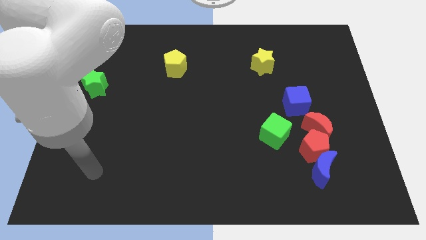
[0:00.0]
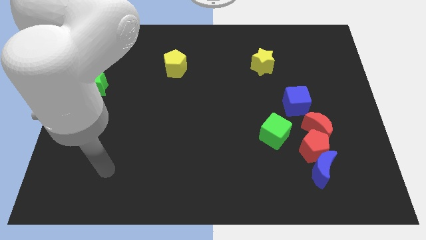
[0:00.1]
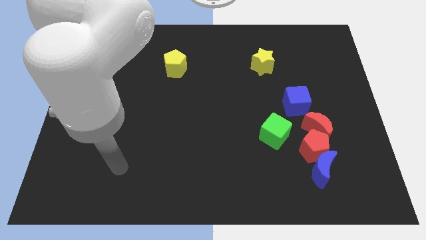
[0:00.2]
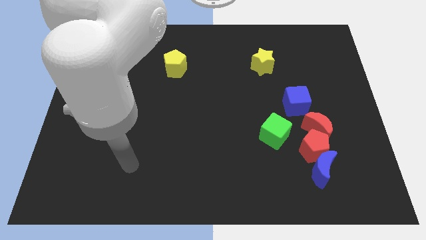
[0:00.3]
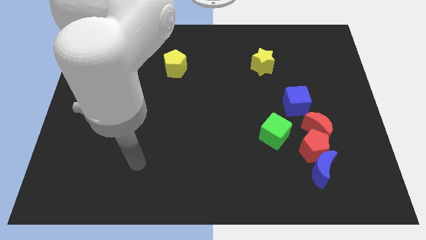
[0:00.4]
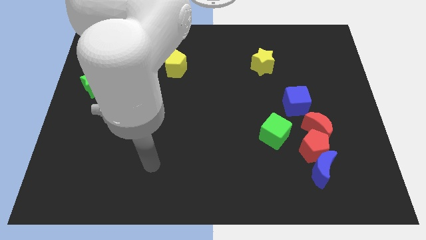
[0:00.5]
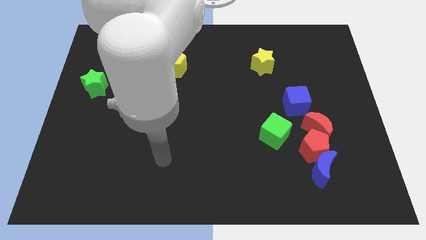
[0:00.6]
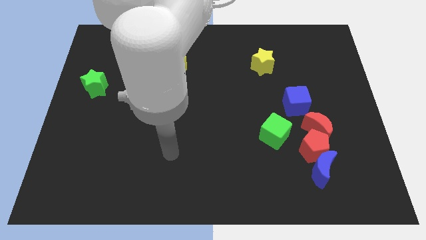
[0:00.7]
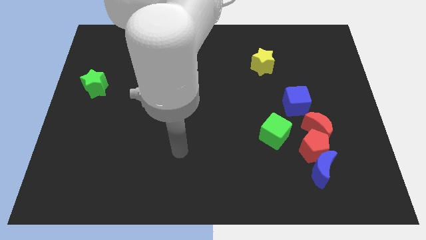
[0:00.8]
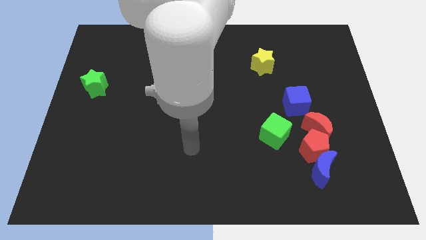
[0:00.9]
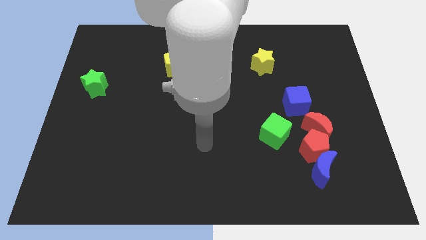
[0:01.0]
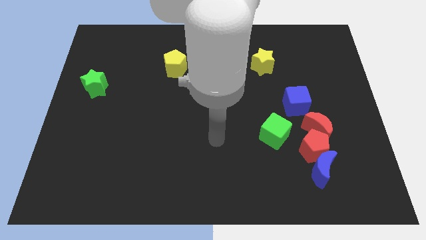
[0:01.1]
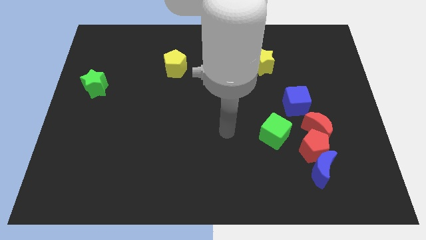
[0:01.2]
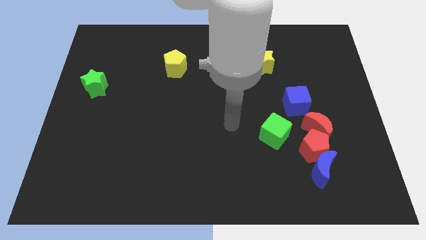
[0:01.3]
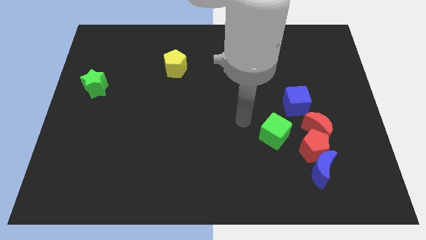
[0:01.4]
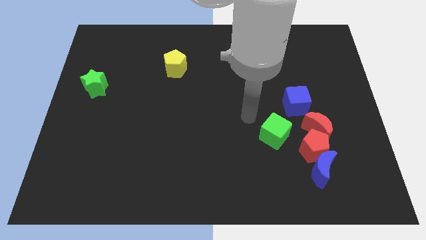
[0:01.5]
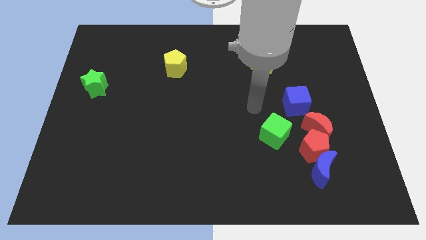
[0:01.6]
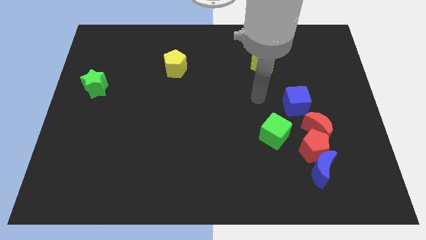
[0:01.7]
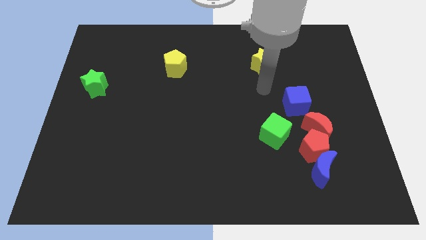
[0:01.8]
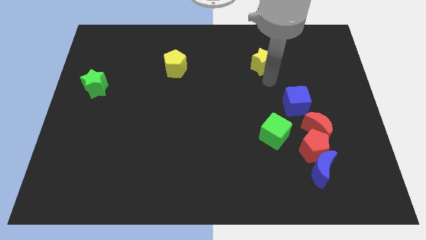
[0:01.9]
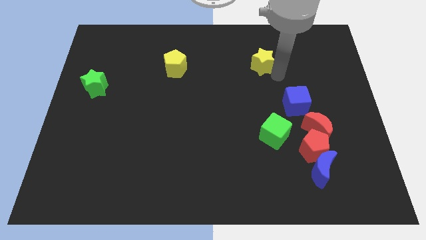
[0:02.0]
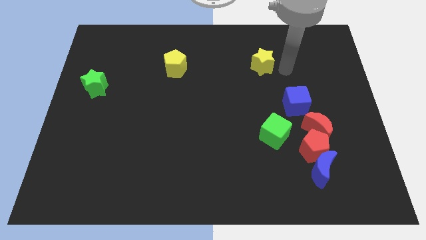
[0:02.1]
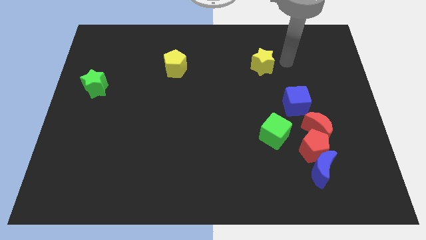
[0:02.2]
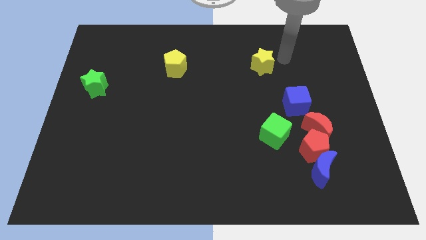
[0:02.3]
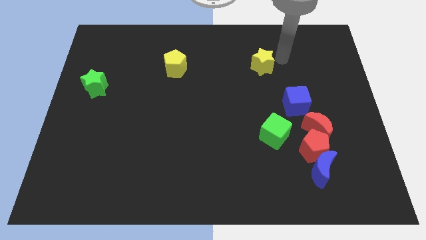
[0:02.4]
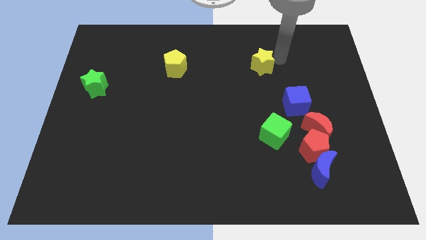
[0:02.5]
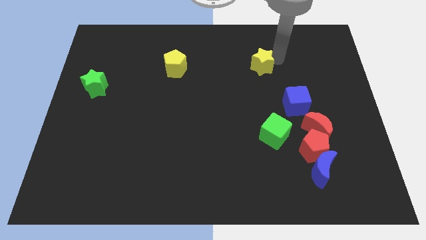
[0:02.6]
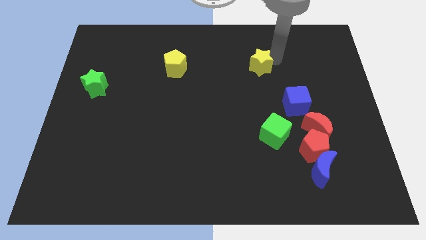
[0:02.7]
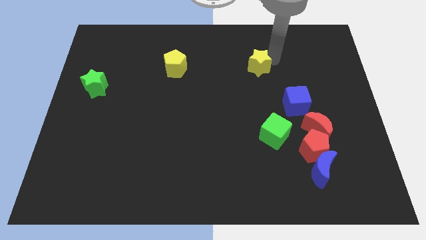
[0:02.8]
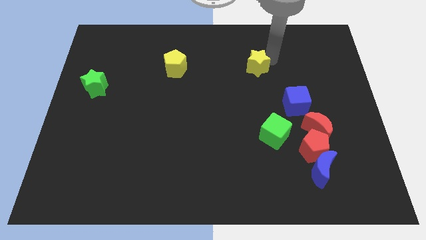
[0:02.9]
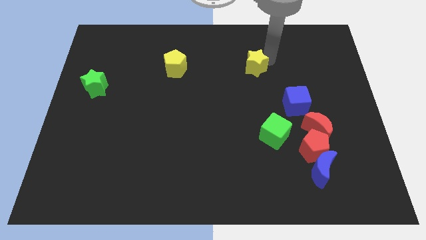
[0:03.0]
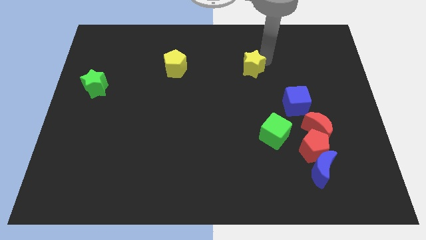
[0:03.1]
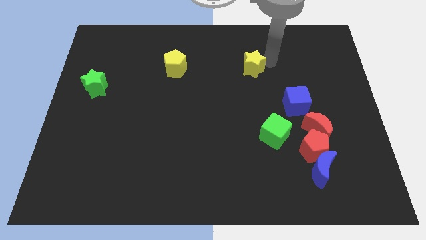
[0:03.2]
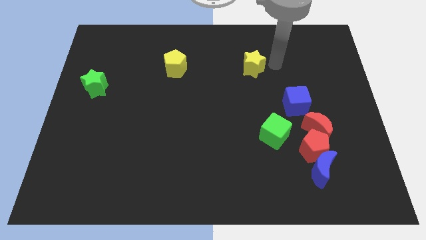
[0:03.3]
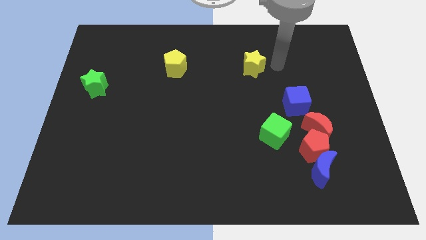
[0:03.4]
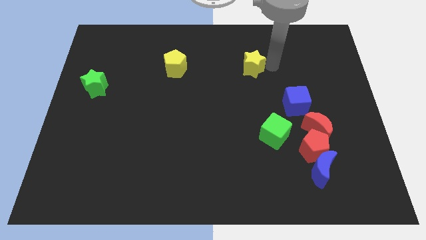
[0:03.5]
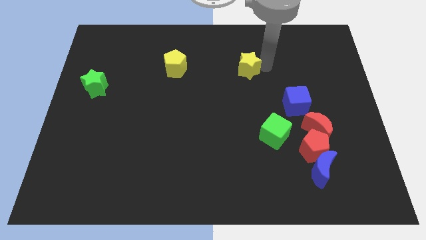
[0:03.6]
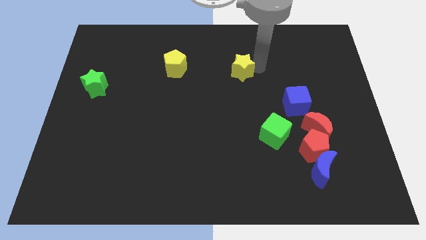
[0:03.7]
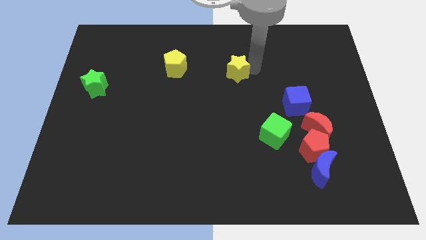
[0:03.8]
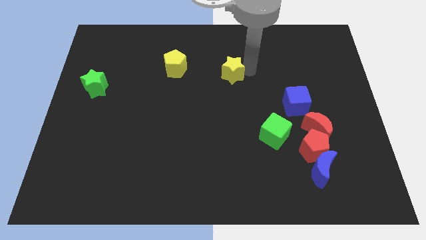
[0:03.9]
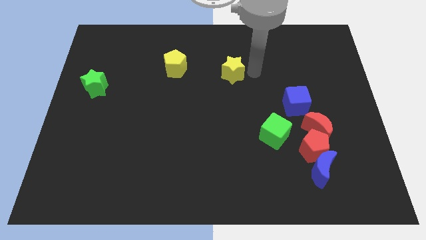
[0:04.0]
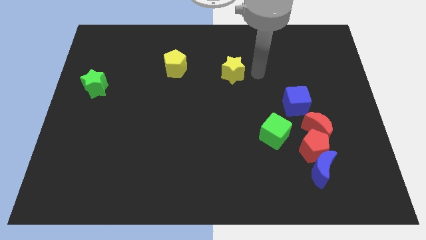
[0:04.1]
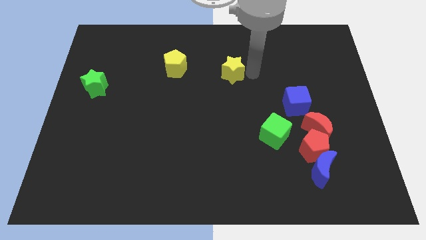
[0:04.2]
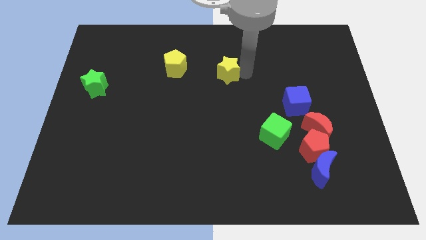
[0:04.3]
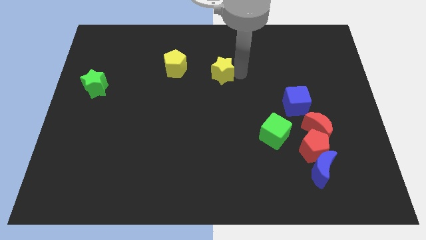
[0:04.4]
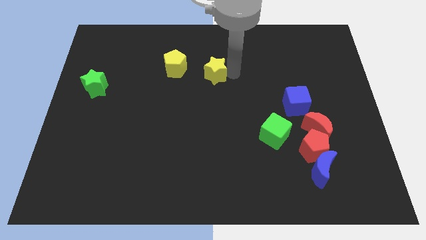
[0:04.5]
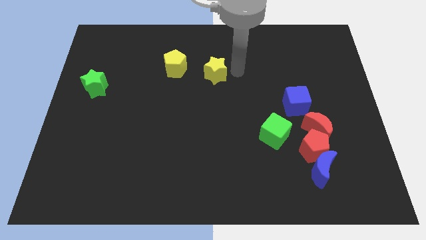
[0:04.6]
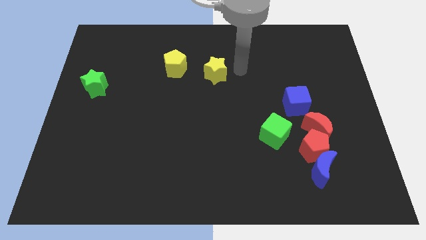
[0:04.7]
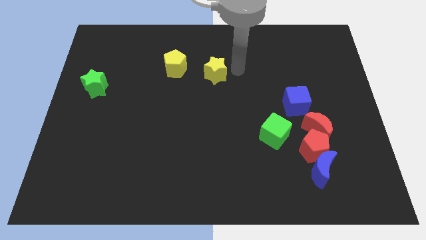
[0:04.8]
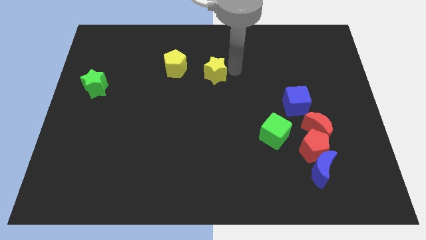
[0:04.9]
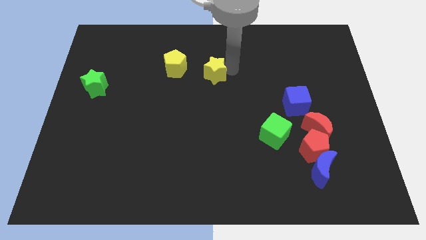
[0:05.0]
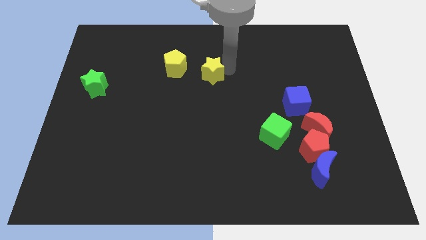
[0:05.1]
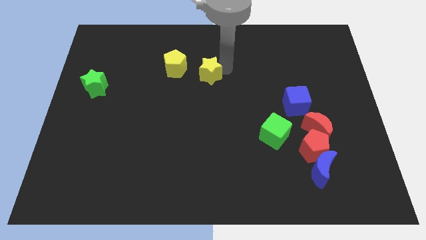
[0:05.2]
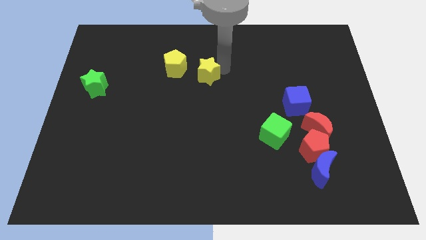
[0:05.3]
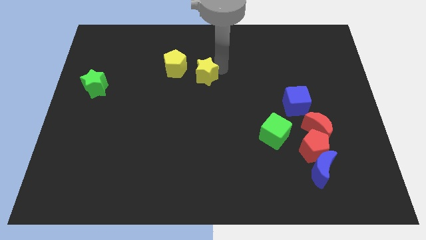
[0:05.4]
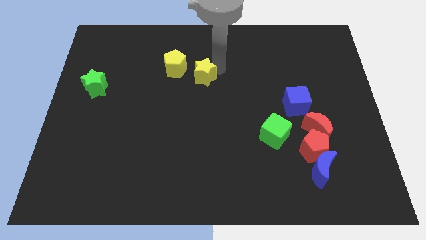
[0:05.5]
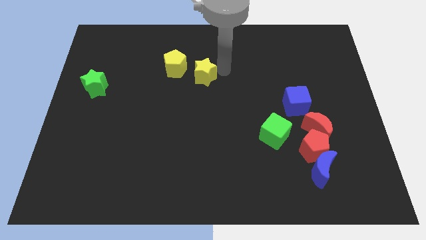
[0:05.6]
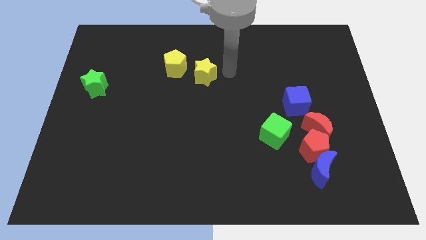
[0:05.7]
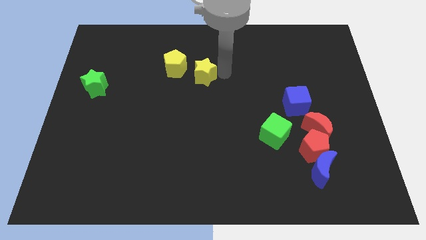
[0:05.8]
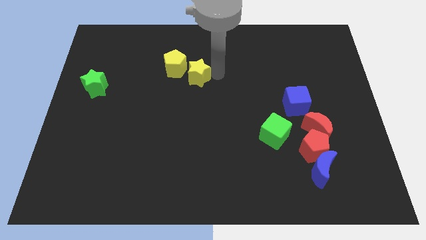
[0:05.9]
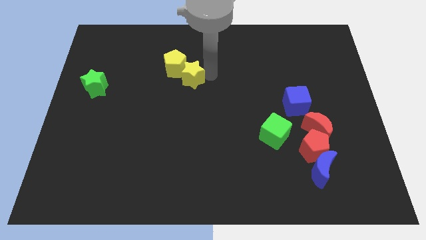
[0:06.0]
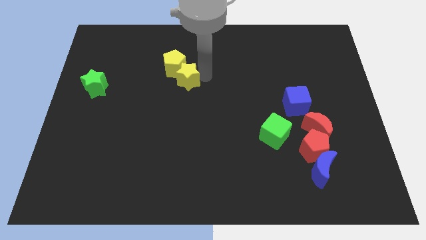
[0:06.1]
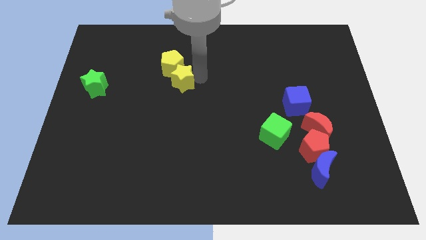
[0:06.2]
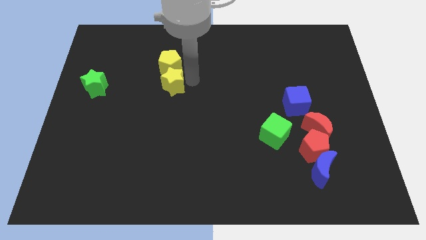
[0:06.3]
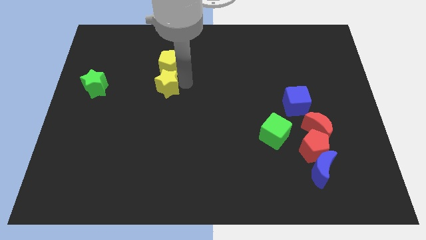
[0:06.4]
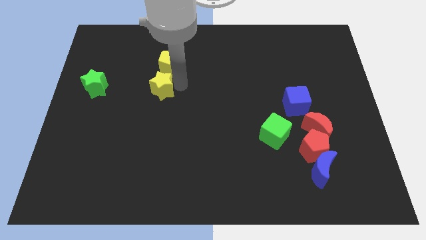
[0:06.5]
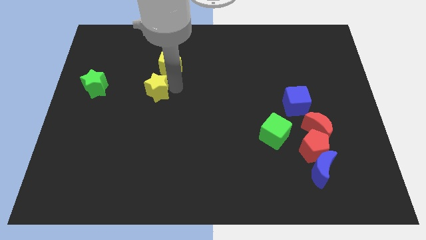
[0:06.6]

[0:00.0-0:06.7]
move the yellow star just right of the green star
